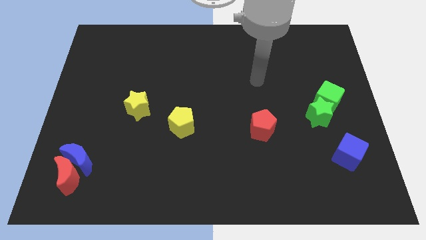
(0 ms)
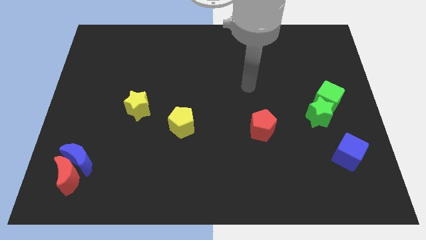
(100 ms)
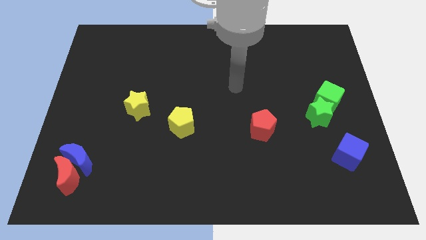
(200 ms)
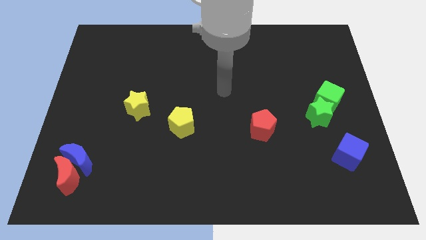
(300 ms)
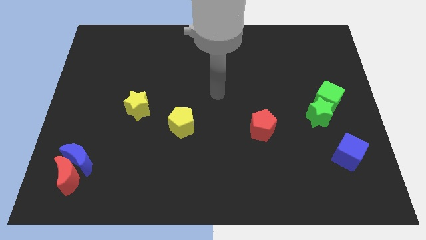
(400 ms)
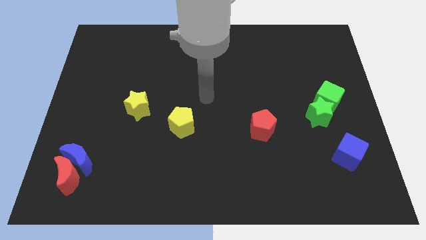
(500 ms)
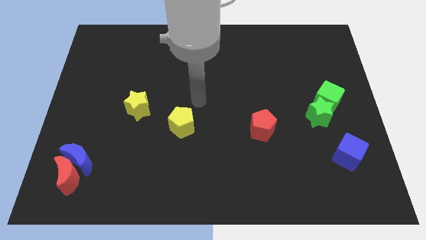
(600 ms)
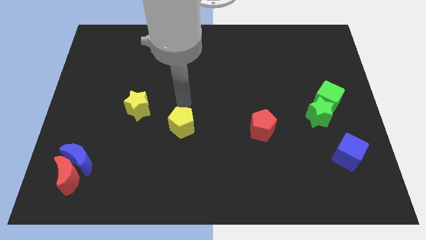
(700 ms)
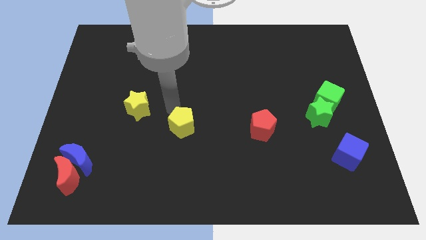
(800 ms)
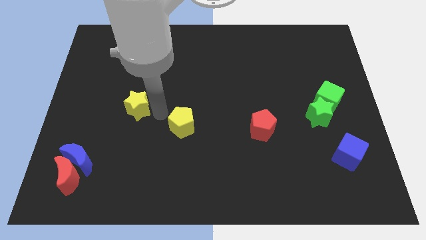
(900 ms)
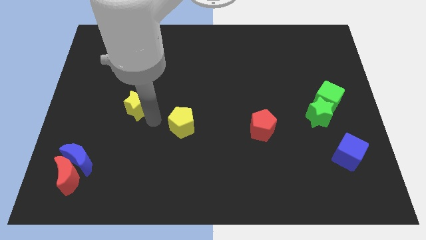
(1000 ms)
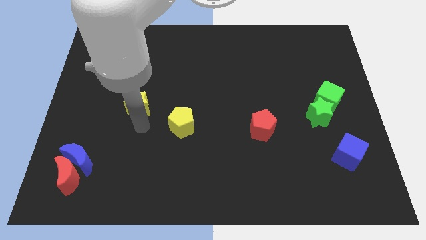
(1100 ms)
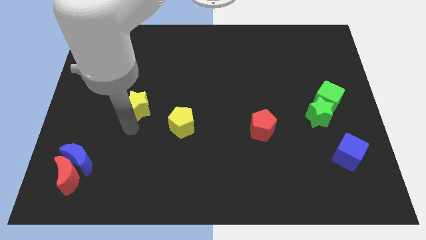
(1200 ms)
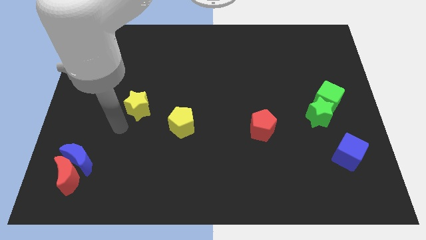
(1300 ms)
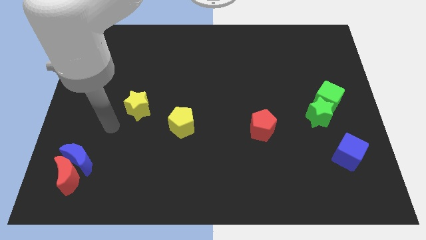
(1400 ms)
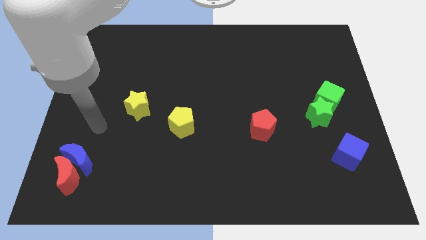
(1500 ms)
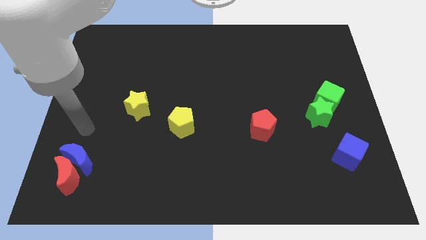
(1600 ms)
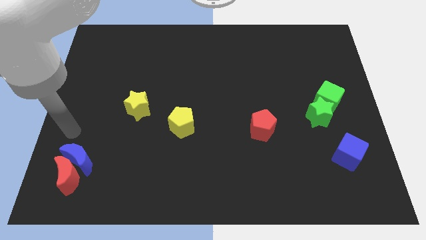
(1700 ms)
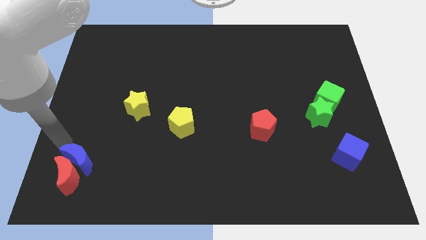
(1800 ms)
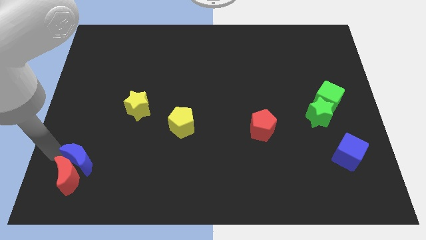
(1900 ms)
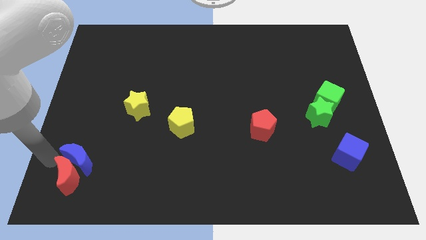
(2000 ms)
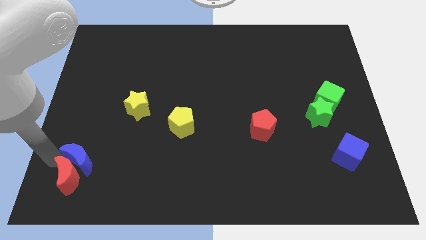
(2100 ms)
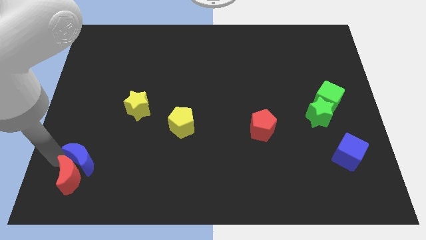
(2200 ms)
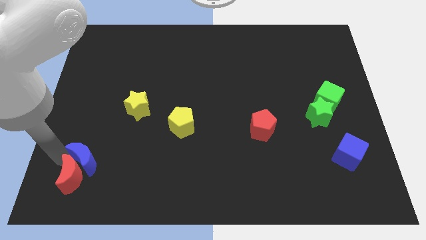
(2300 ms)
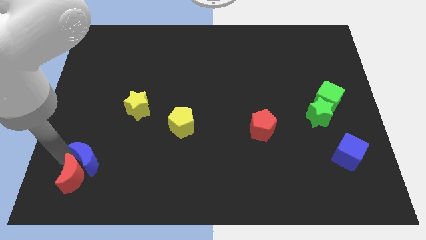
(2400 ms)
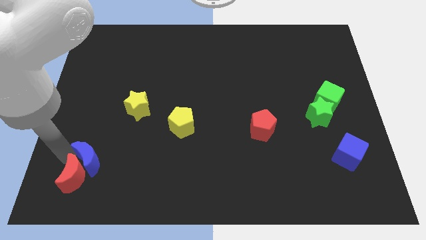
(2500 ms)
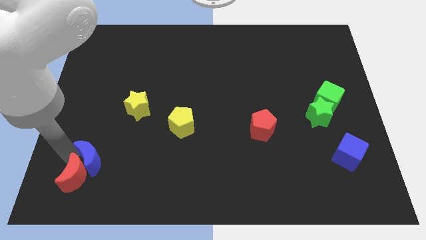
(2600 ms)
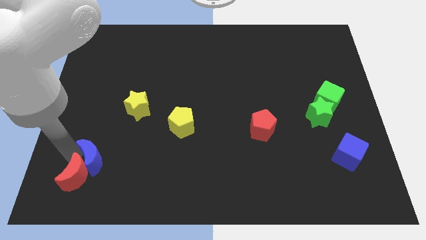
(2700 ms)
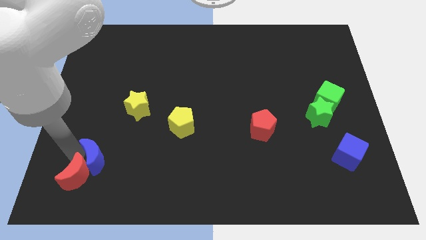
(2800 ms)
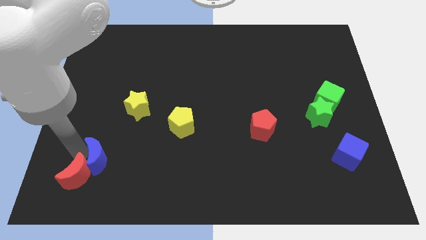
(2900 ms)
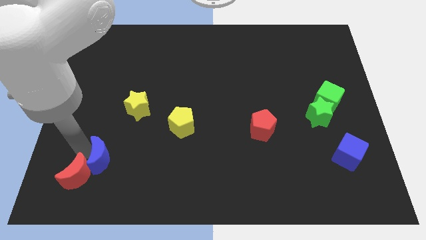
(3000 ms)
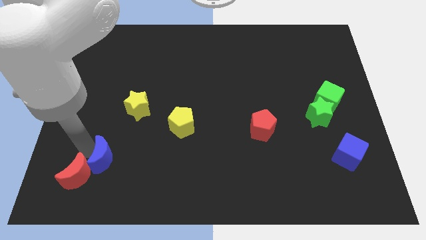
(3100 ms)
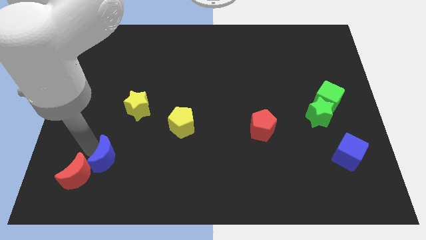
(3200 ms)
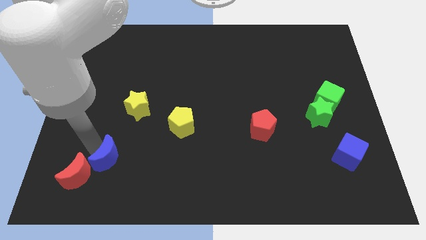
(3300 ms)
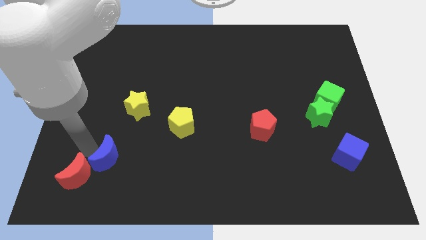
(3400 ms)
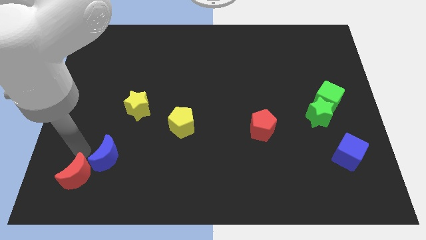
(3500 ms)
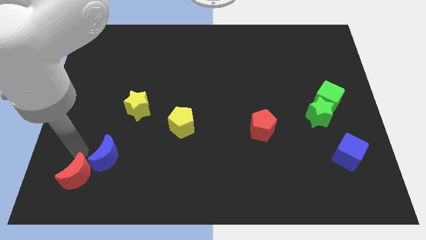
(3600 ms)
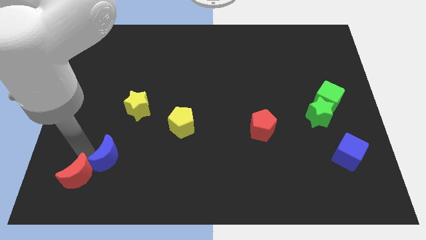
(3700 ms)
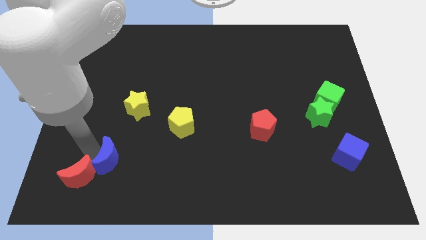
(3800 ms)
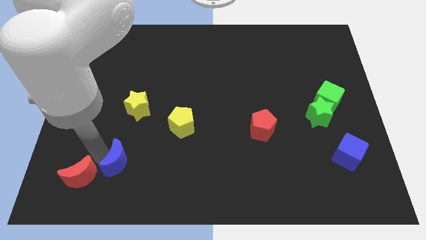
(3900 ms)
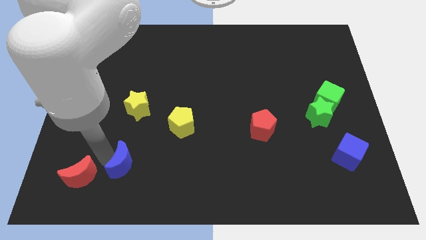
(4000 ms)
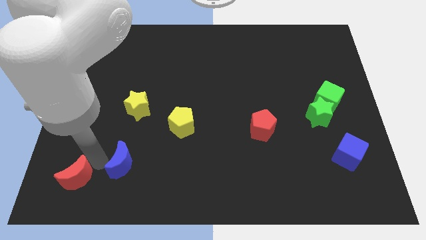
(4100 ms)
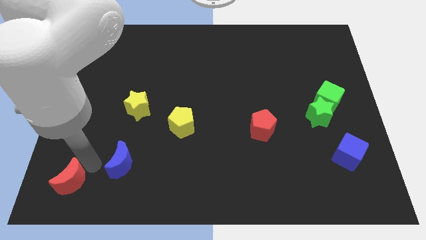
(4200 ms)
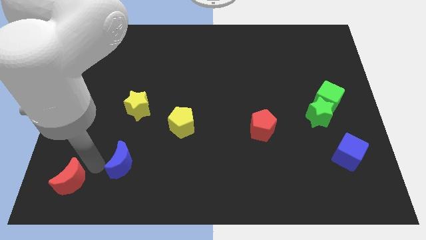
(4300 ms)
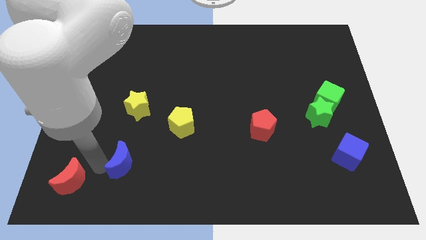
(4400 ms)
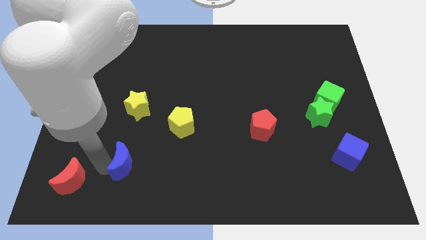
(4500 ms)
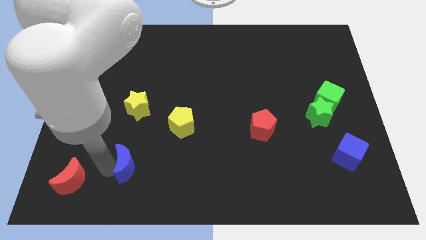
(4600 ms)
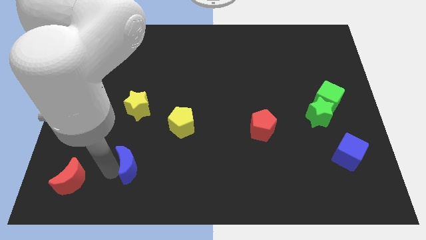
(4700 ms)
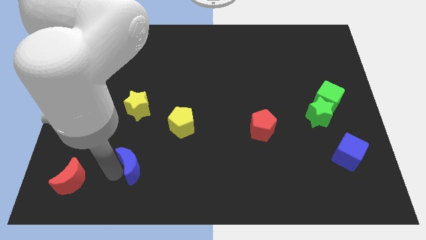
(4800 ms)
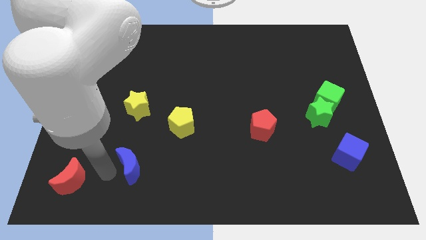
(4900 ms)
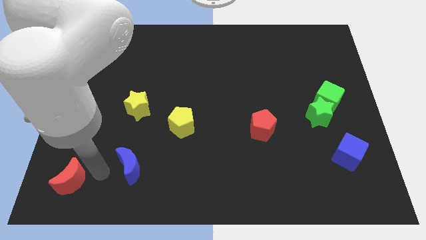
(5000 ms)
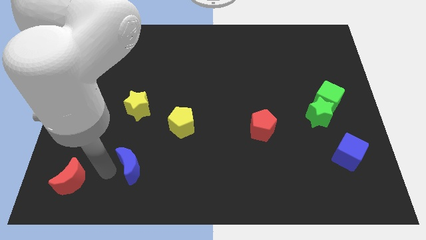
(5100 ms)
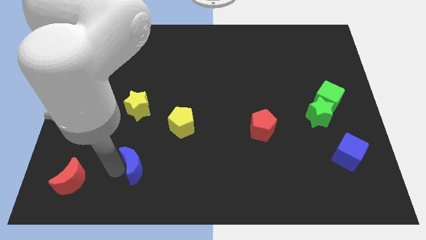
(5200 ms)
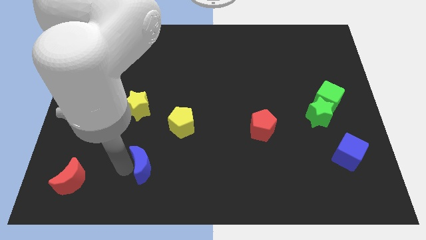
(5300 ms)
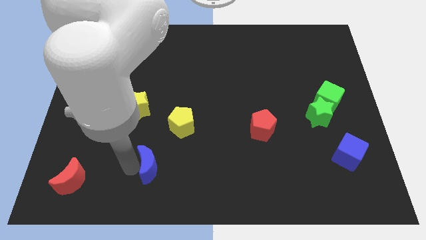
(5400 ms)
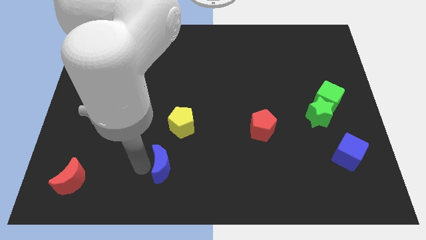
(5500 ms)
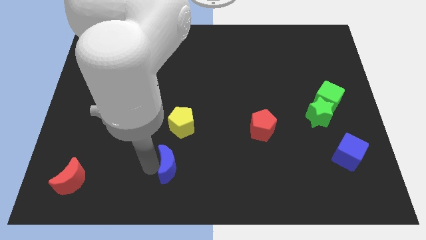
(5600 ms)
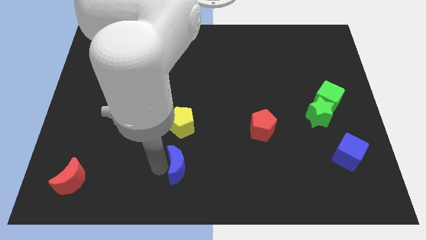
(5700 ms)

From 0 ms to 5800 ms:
push the blue moon right

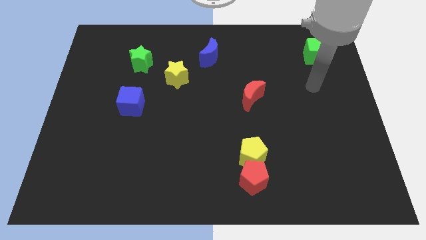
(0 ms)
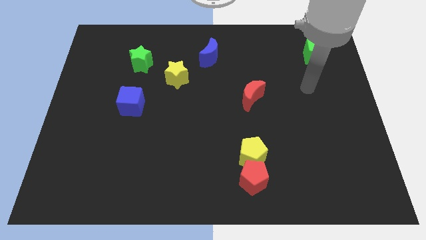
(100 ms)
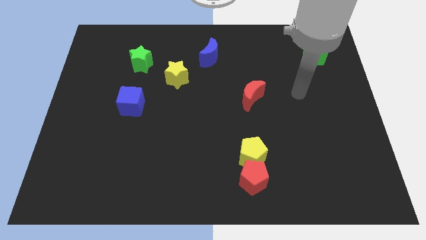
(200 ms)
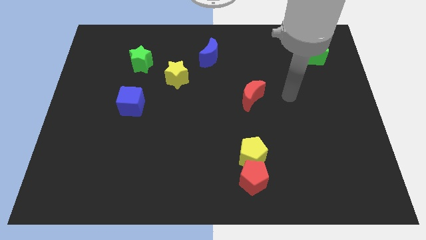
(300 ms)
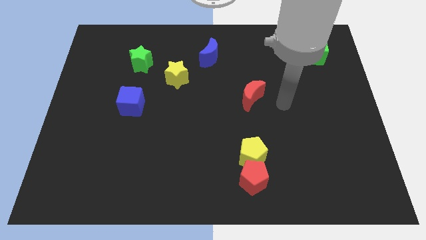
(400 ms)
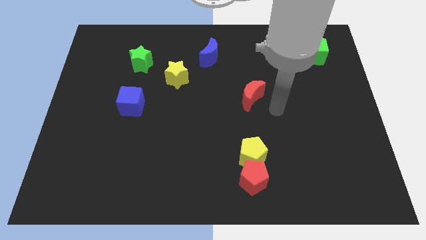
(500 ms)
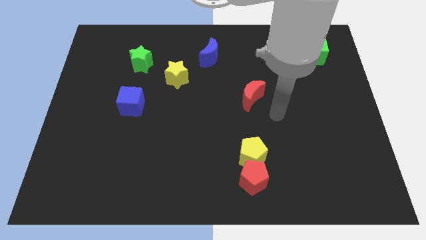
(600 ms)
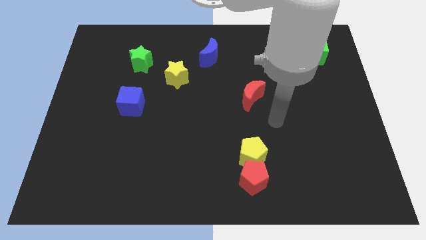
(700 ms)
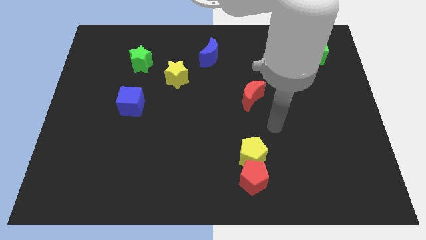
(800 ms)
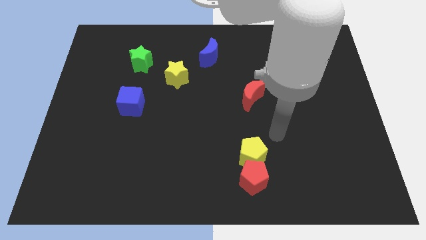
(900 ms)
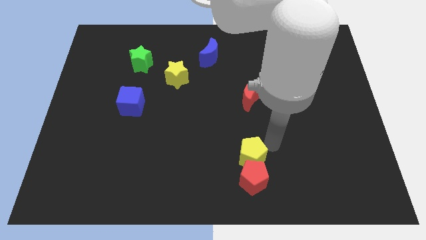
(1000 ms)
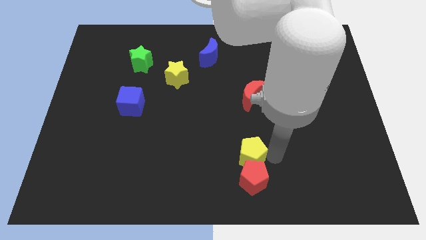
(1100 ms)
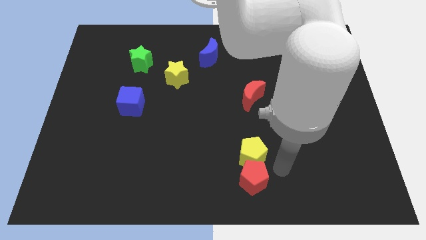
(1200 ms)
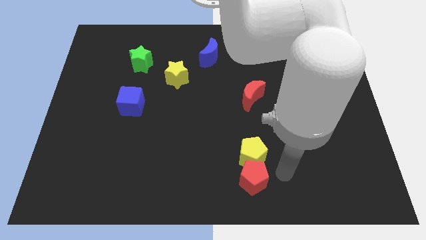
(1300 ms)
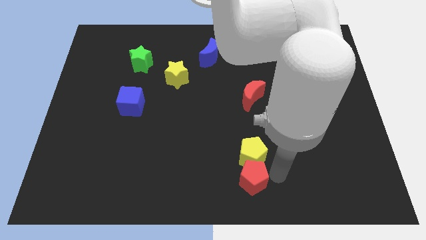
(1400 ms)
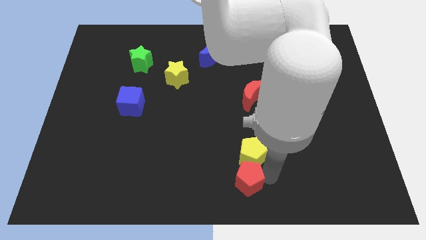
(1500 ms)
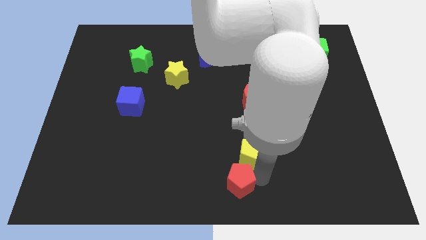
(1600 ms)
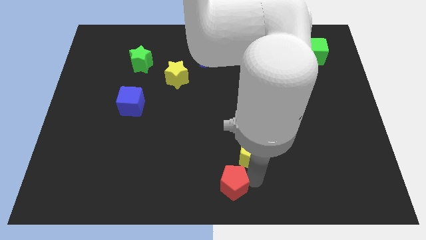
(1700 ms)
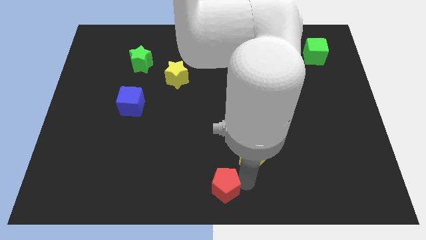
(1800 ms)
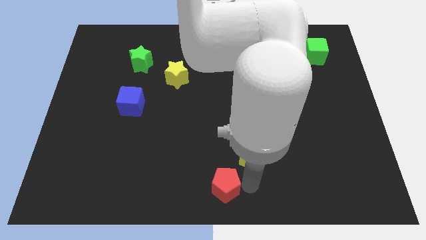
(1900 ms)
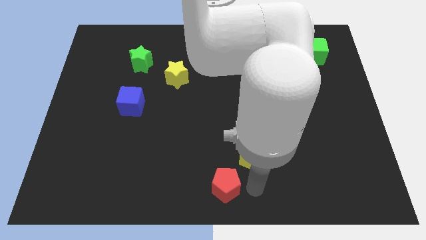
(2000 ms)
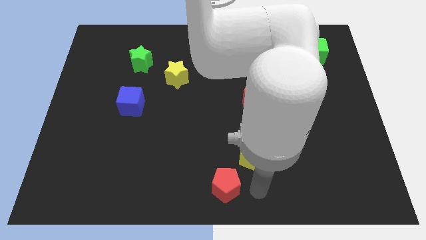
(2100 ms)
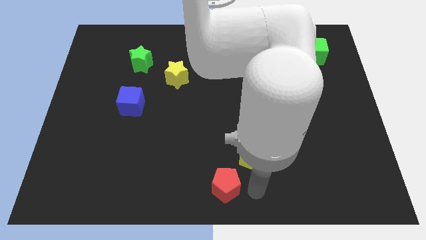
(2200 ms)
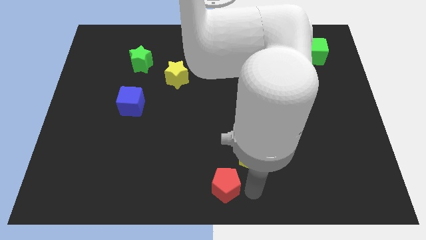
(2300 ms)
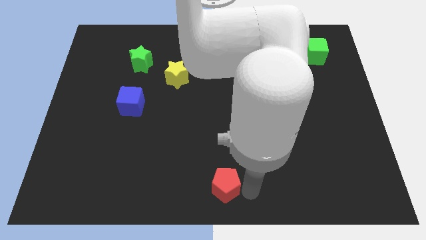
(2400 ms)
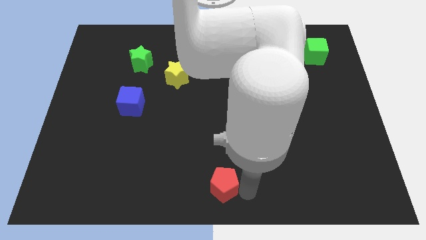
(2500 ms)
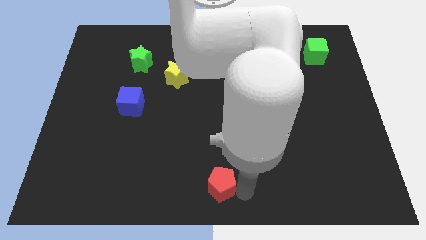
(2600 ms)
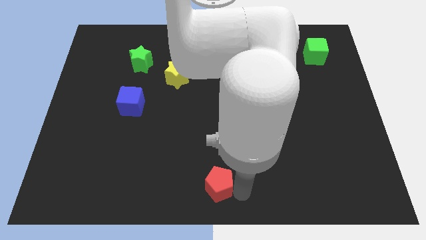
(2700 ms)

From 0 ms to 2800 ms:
slightly push the red pentagon left
